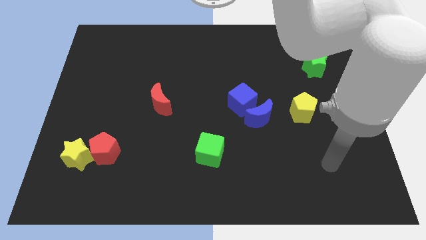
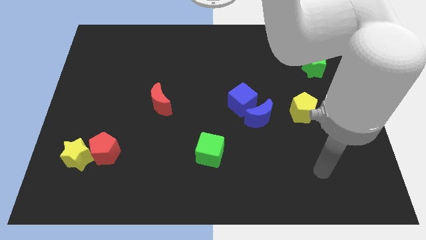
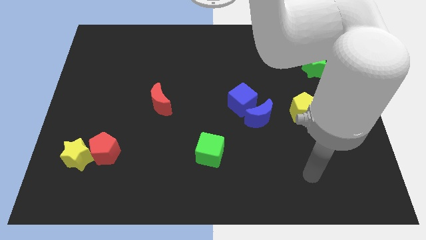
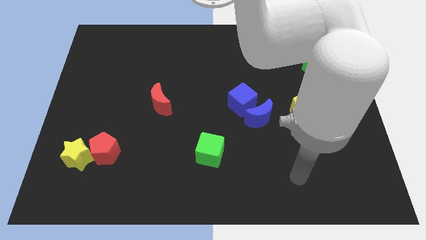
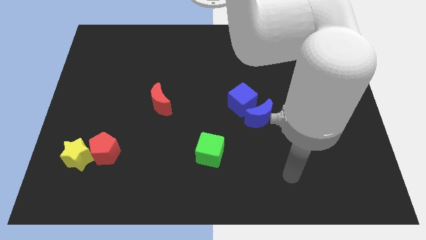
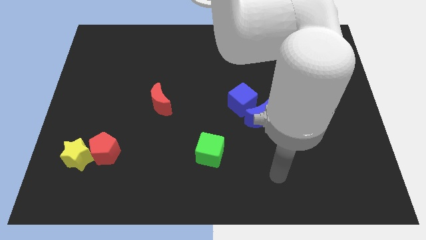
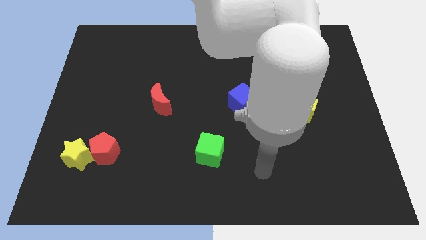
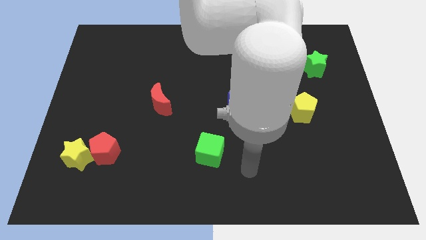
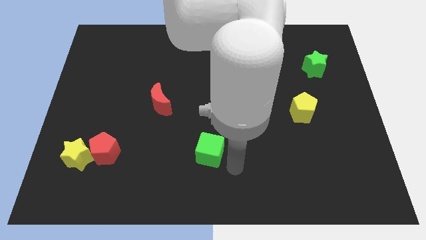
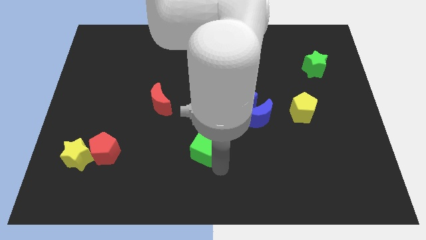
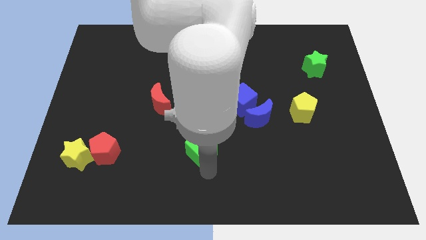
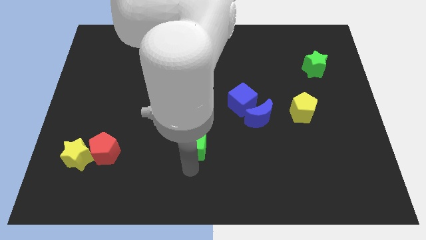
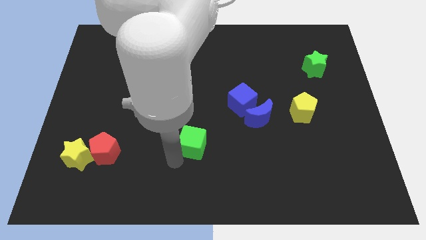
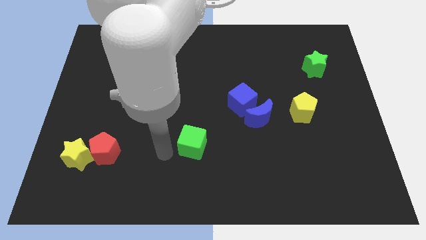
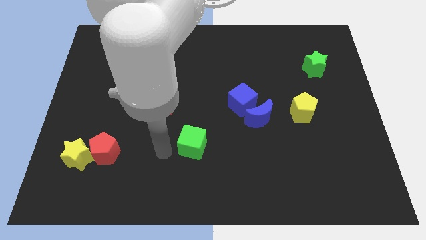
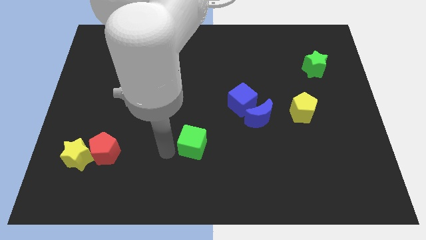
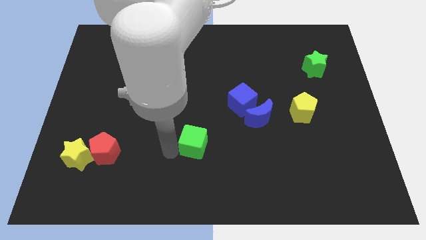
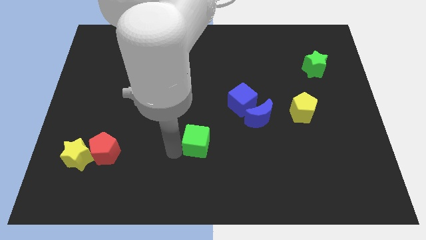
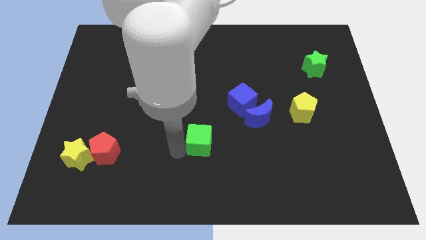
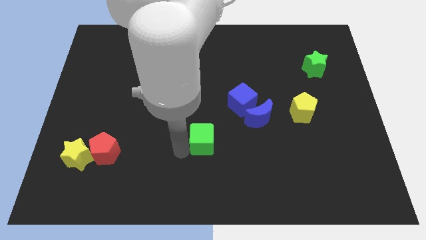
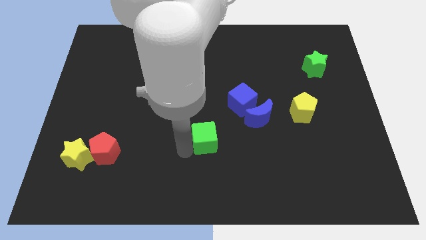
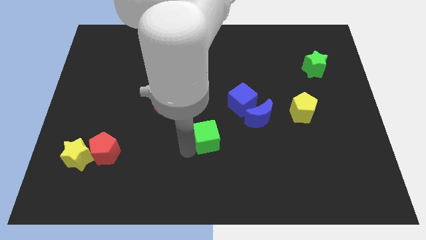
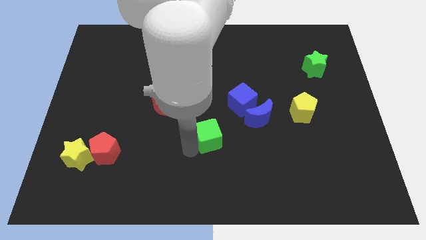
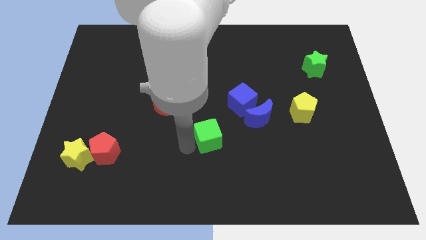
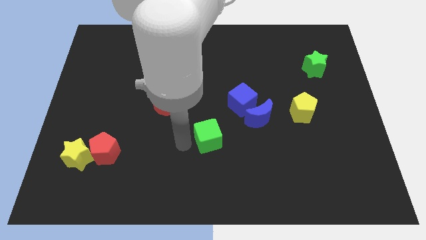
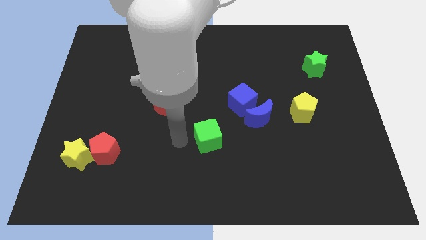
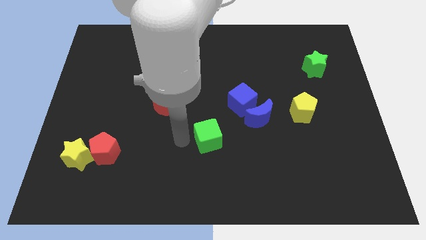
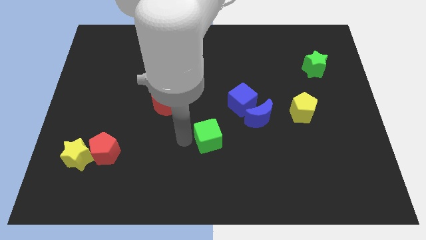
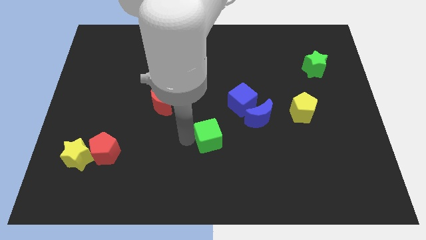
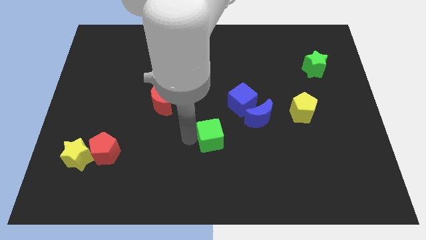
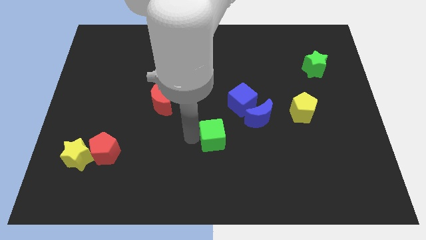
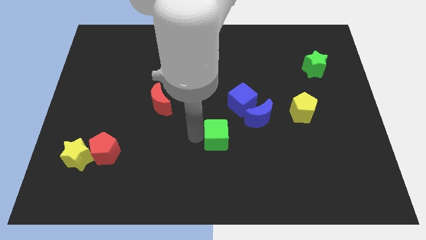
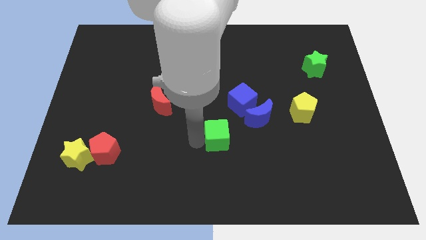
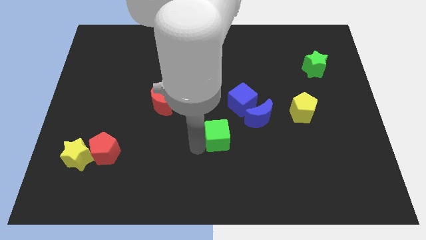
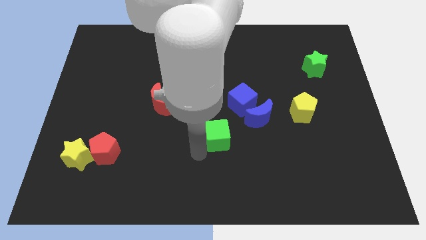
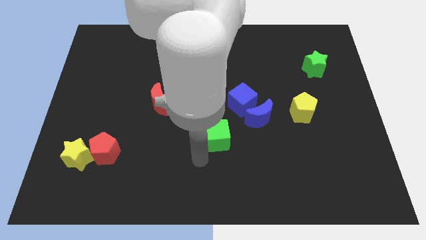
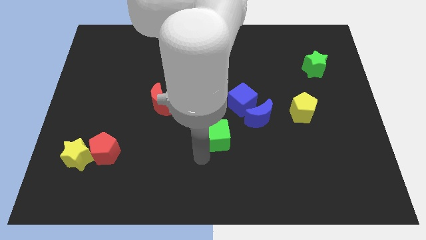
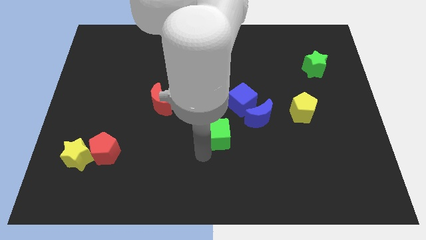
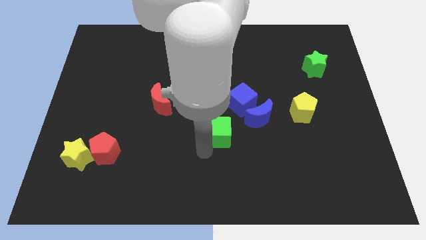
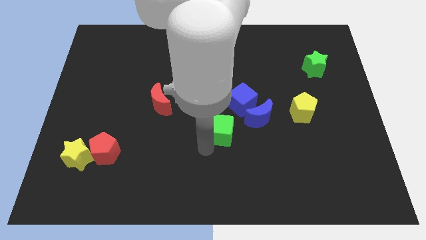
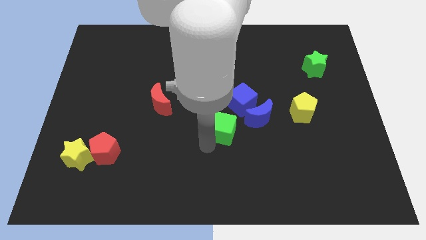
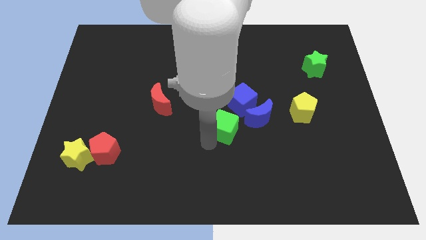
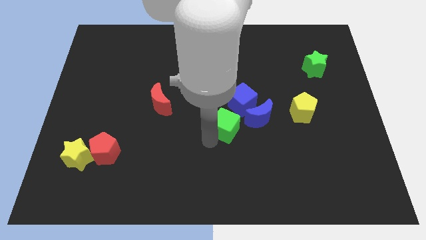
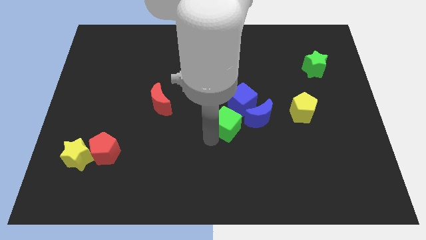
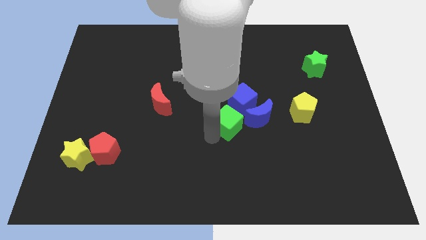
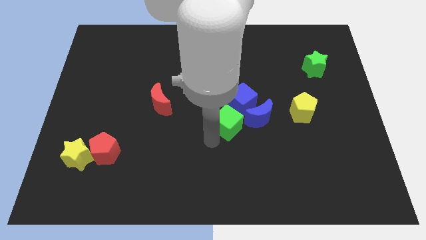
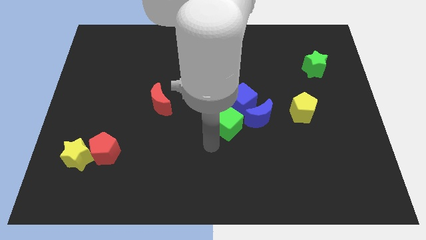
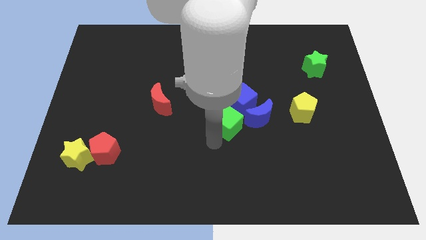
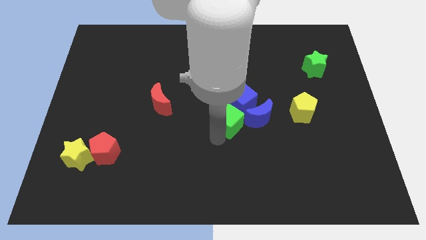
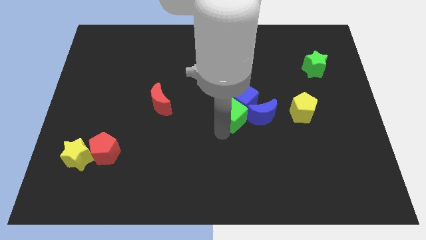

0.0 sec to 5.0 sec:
push the green cube towards the blue cube

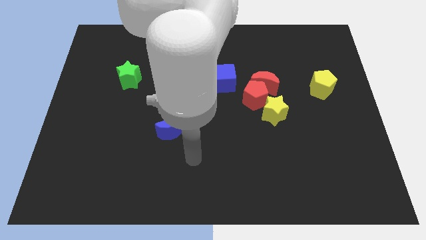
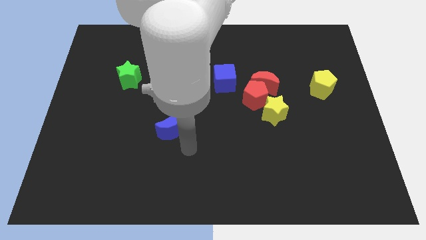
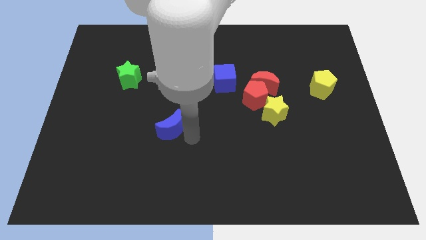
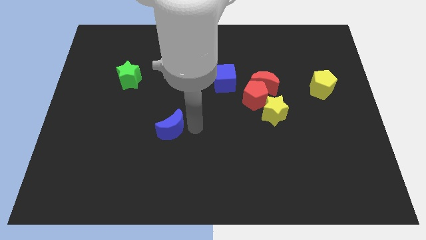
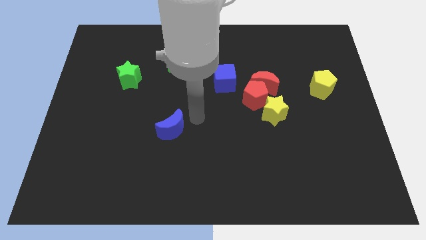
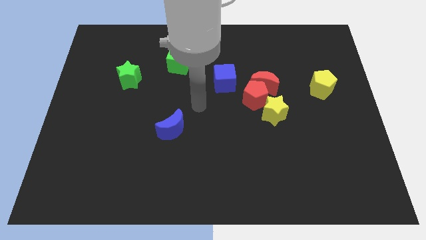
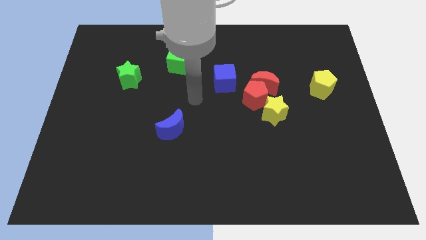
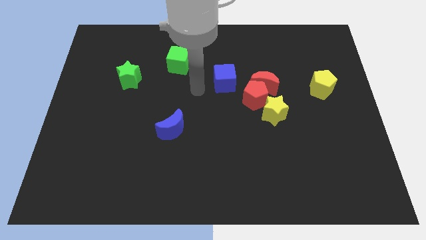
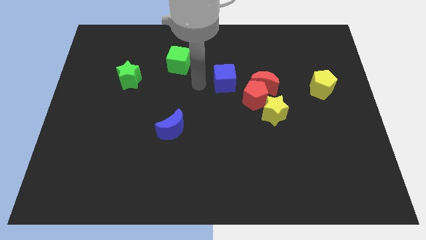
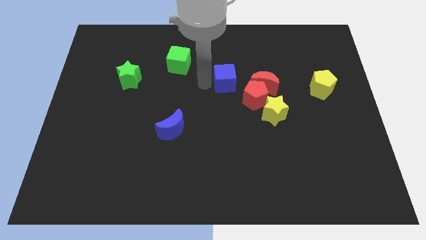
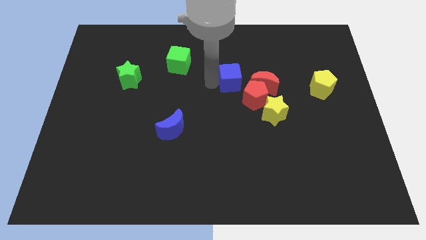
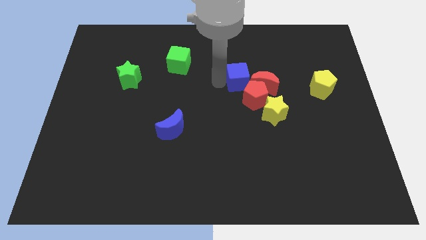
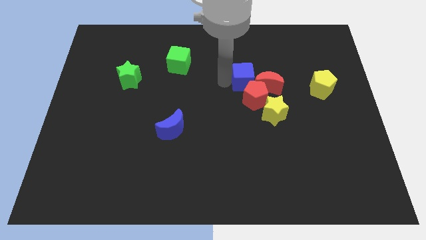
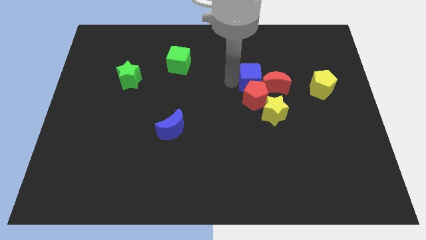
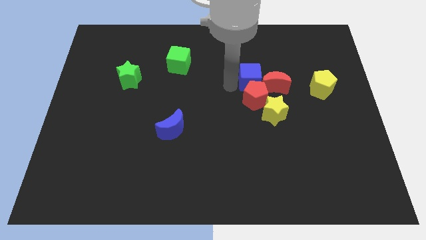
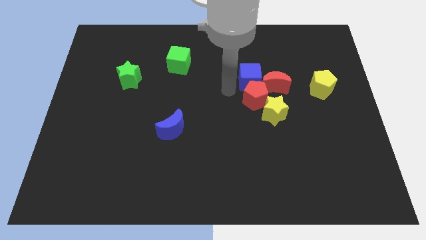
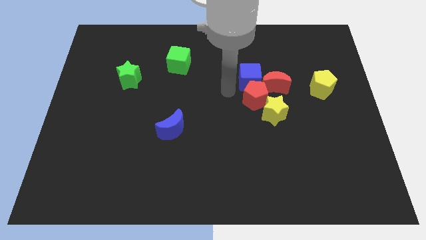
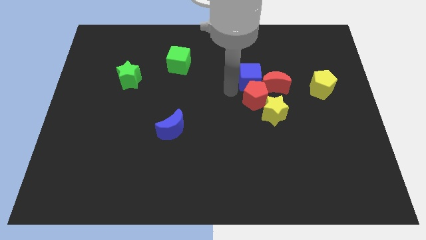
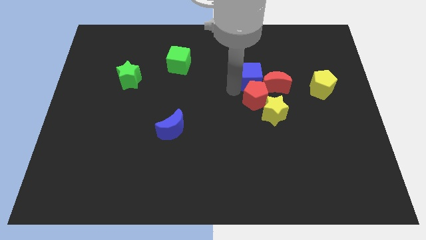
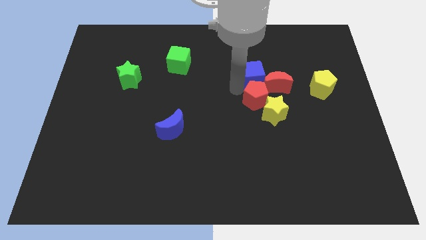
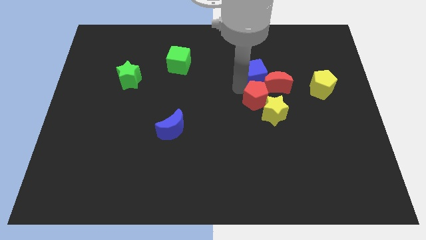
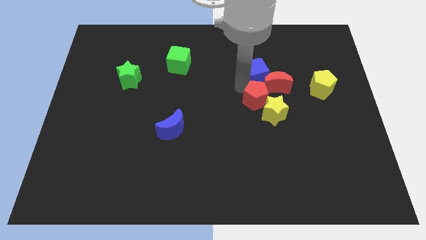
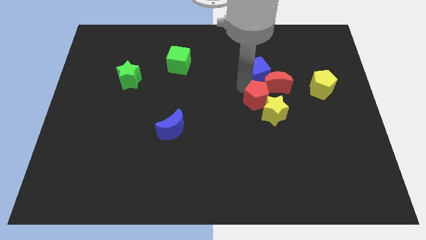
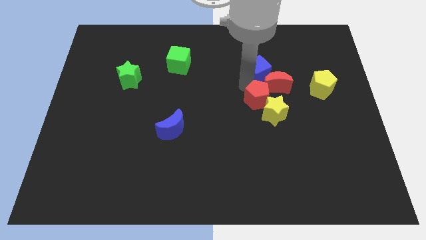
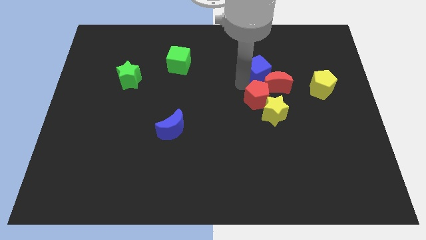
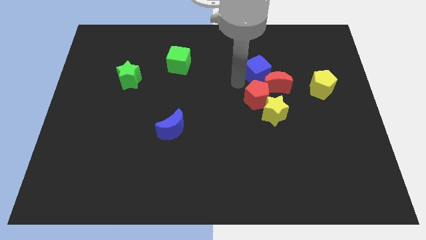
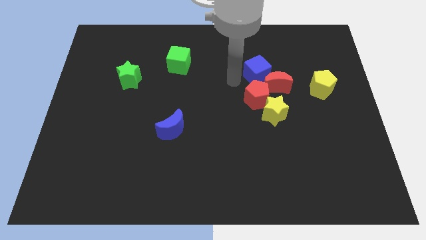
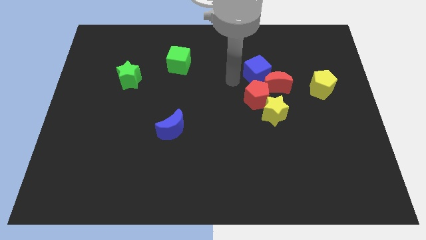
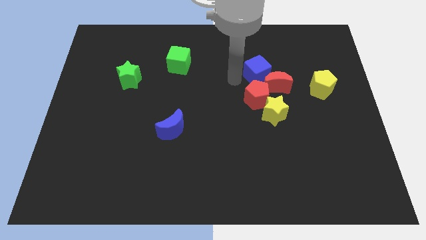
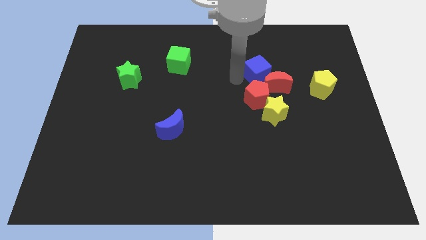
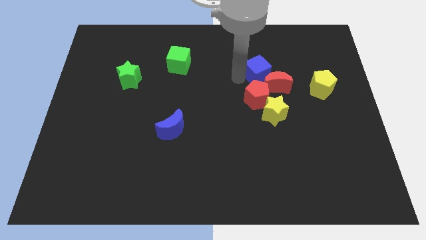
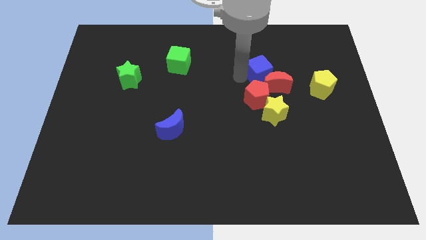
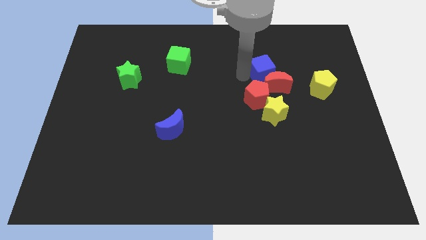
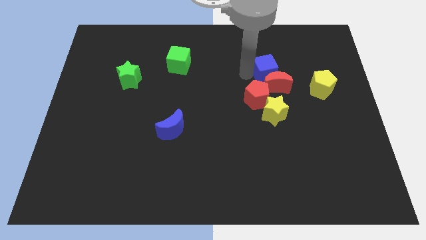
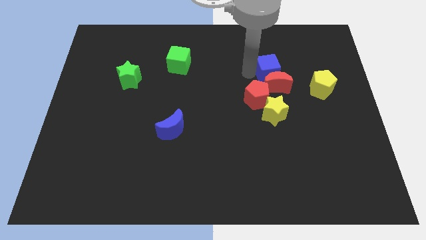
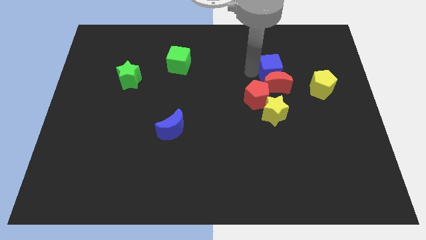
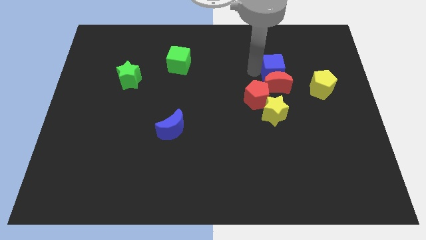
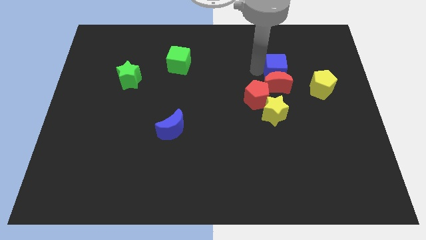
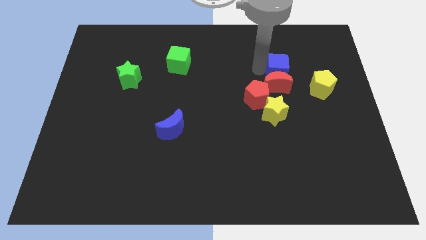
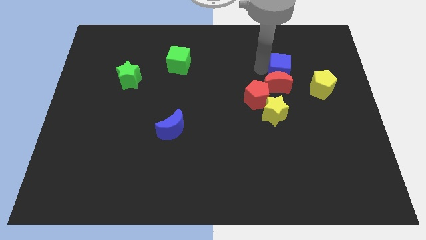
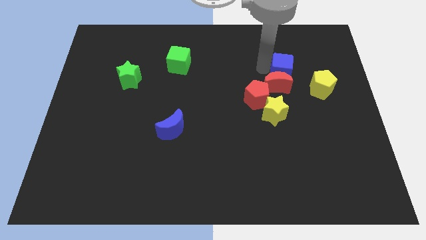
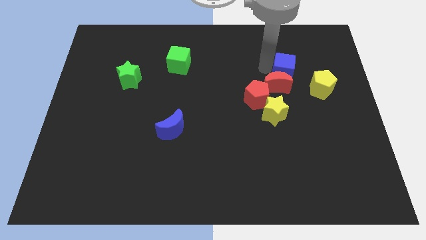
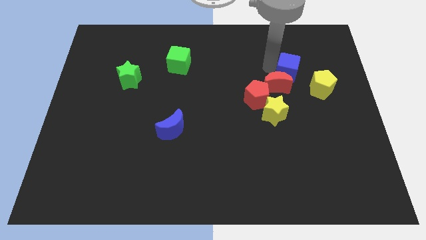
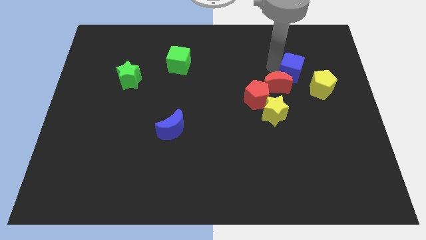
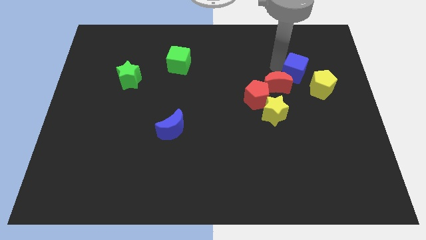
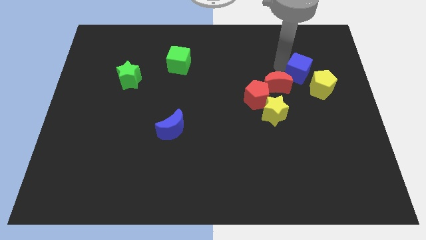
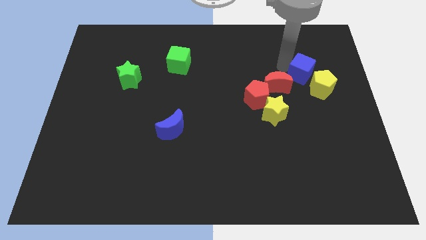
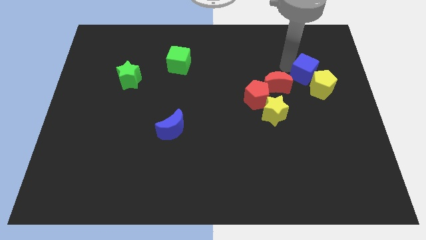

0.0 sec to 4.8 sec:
push the blue cube close to the yellow pentagon
